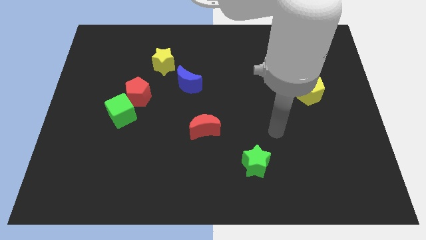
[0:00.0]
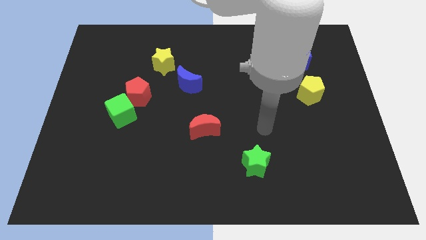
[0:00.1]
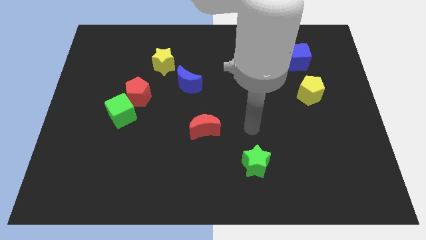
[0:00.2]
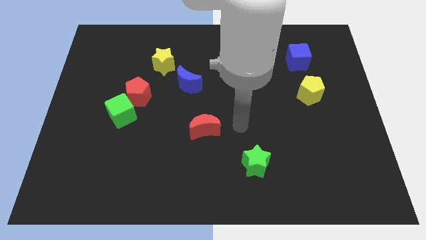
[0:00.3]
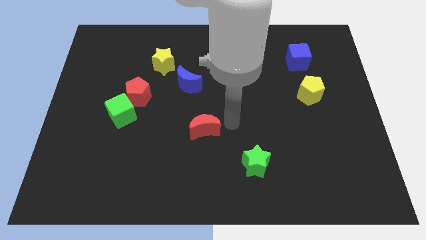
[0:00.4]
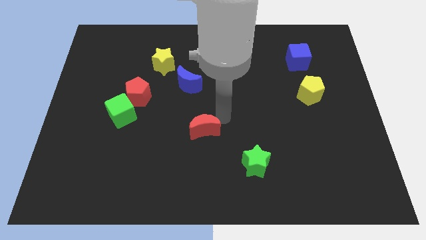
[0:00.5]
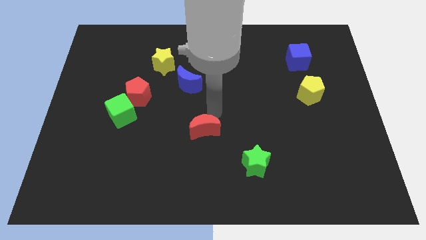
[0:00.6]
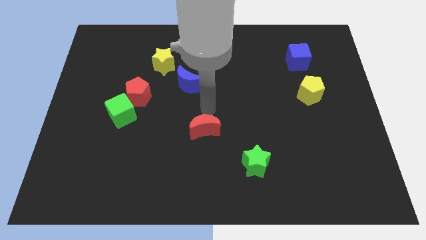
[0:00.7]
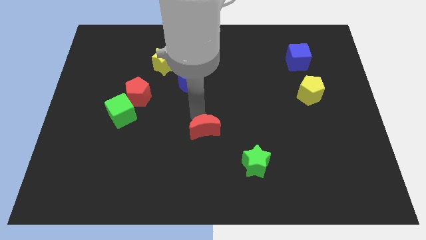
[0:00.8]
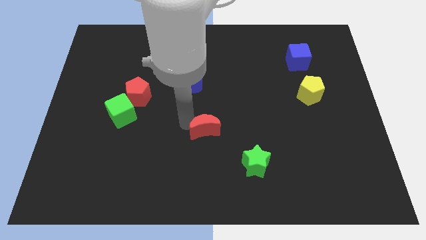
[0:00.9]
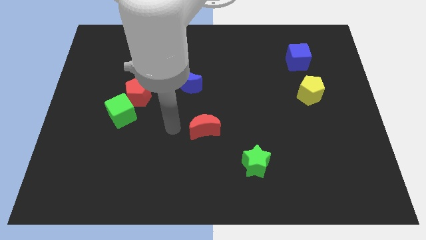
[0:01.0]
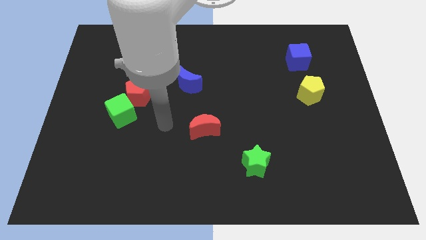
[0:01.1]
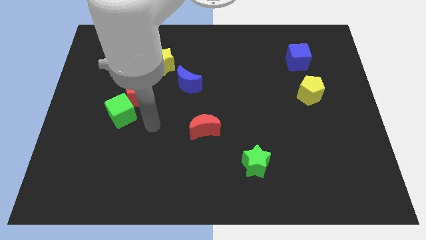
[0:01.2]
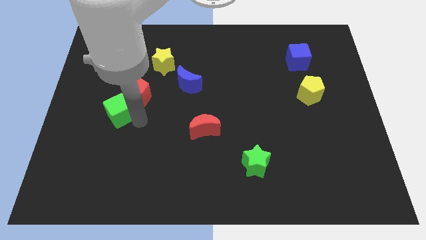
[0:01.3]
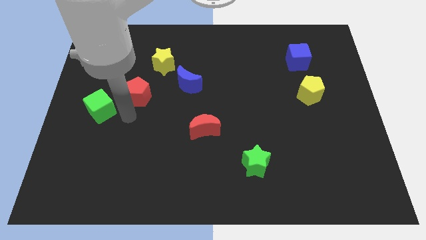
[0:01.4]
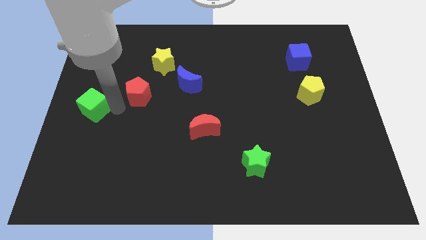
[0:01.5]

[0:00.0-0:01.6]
separate the red pentagon from the green cube

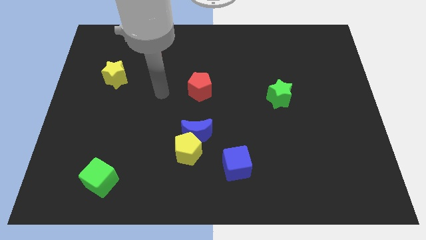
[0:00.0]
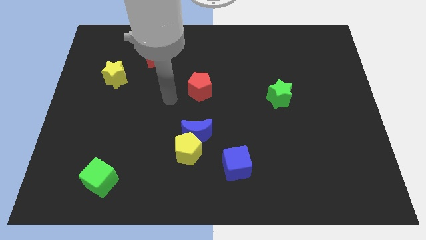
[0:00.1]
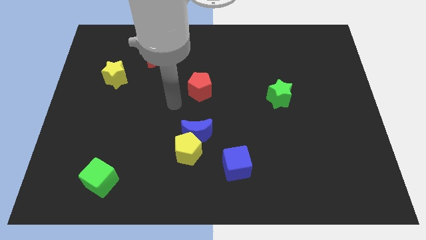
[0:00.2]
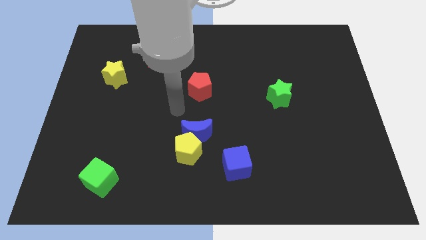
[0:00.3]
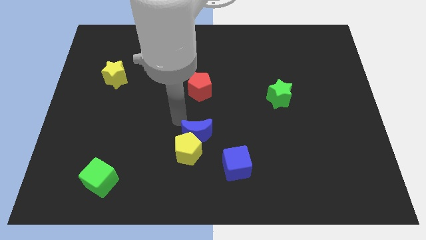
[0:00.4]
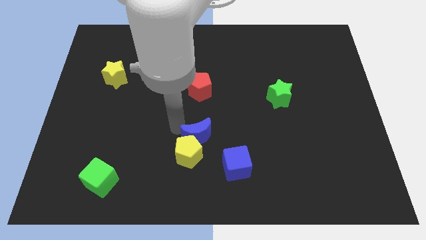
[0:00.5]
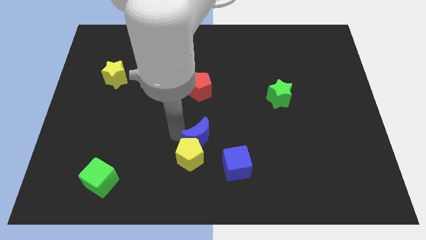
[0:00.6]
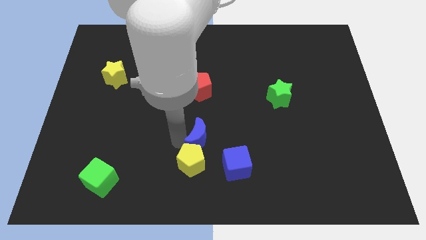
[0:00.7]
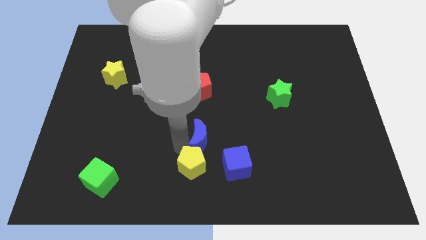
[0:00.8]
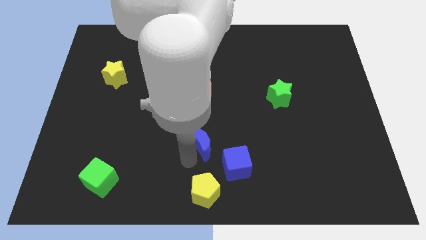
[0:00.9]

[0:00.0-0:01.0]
move the blue moon away from the yellow pentagon

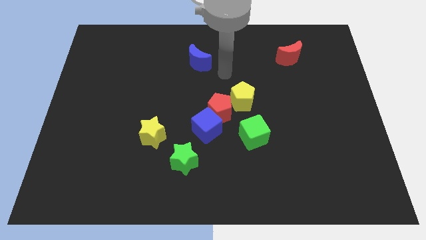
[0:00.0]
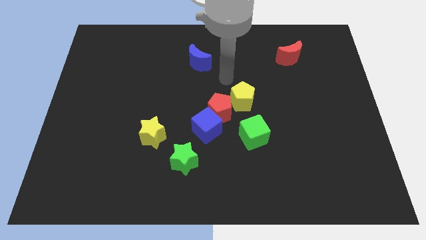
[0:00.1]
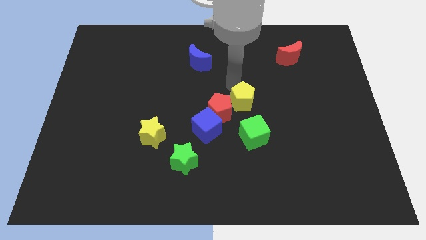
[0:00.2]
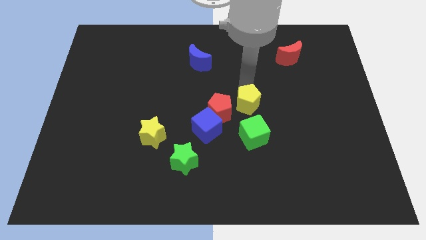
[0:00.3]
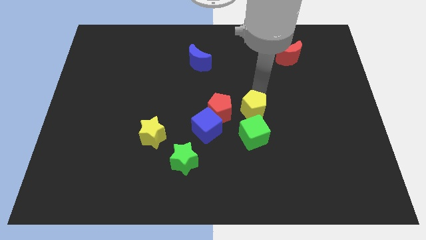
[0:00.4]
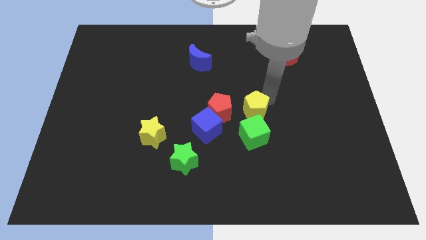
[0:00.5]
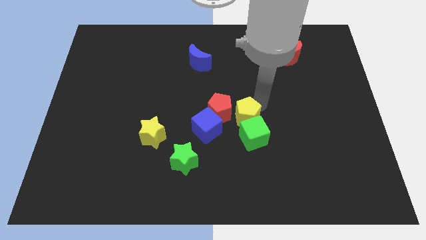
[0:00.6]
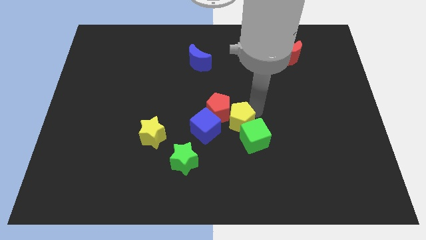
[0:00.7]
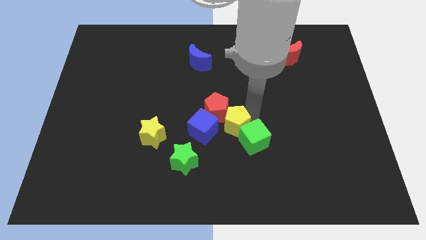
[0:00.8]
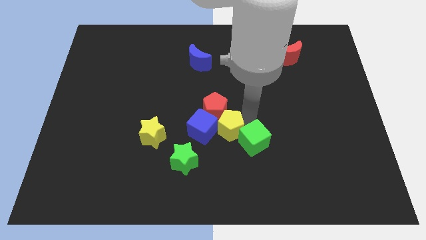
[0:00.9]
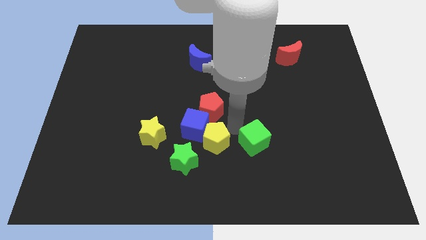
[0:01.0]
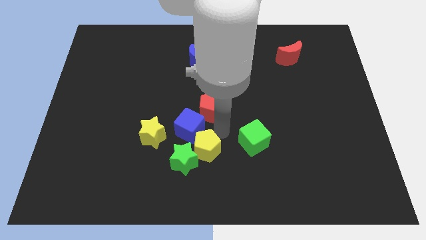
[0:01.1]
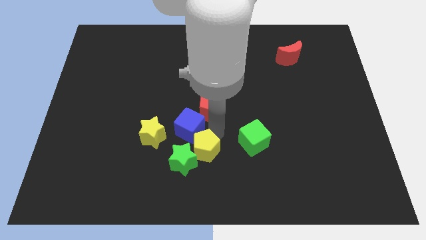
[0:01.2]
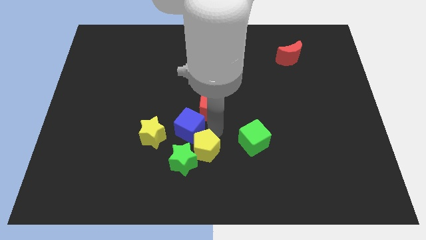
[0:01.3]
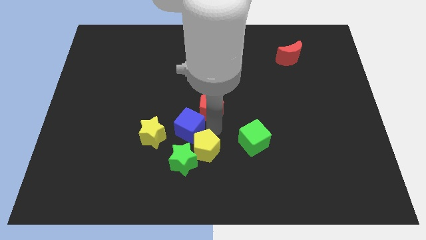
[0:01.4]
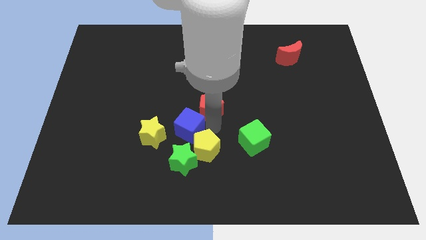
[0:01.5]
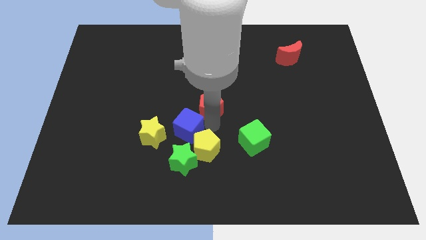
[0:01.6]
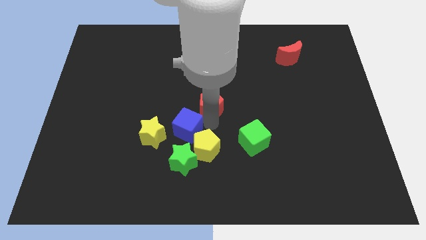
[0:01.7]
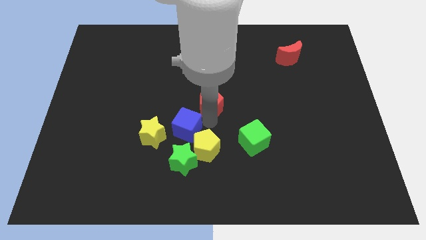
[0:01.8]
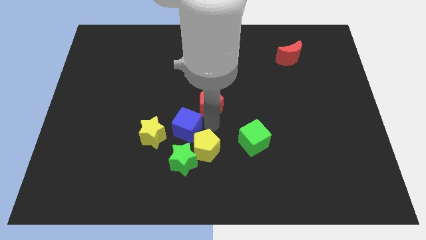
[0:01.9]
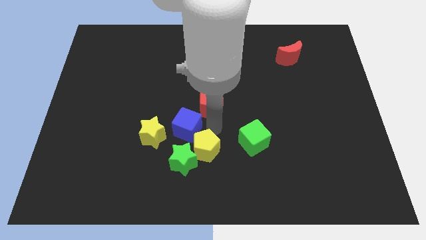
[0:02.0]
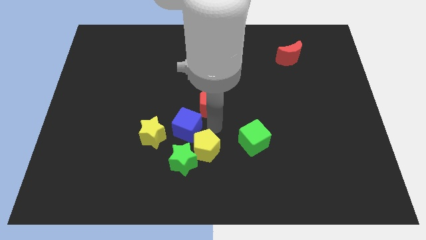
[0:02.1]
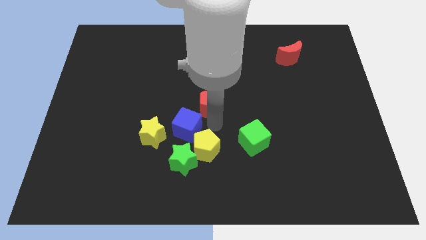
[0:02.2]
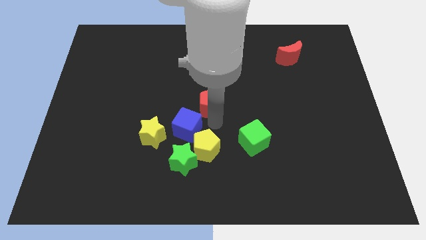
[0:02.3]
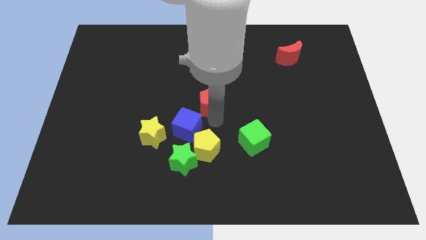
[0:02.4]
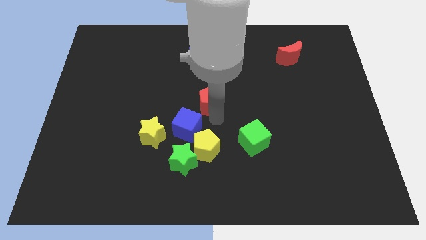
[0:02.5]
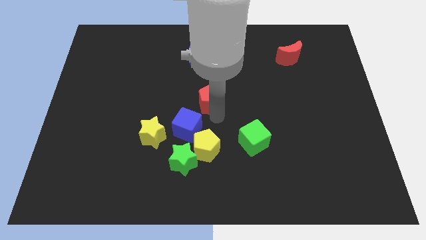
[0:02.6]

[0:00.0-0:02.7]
pull the red pentagon apart from the blue cube, yellow pentagon, and green cube

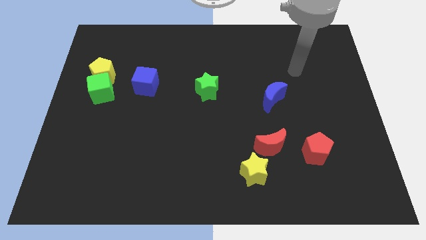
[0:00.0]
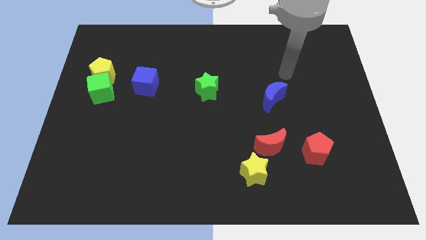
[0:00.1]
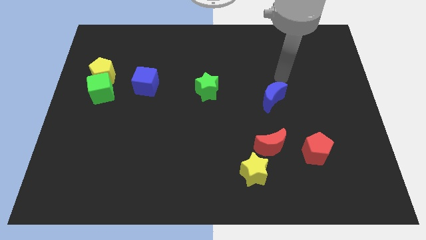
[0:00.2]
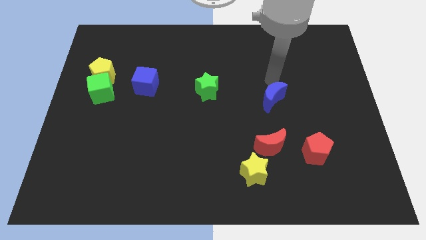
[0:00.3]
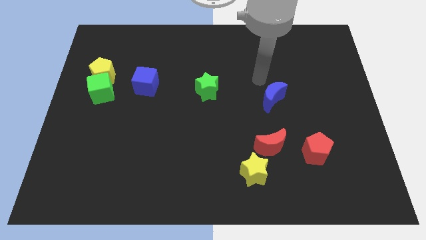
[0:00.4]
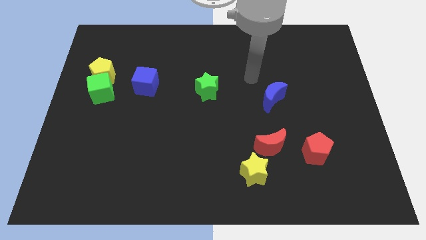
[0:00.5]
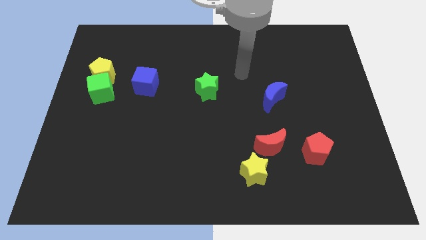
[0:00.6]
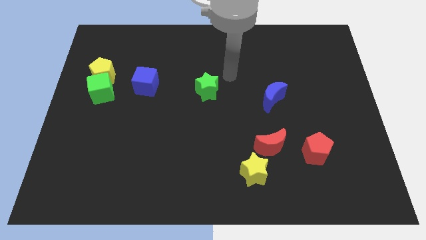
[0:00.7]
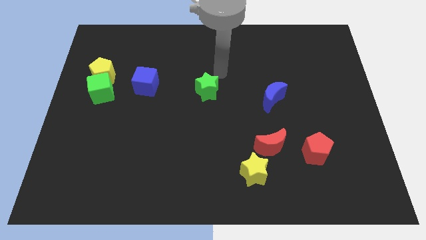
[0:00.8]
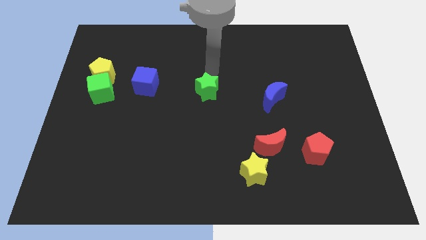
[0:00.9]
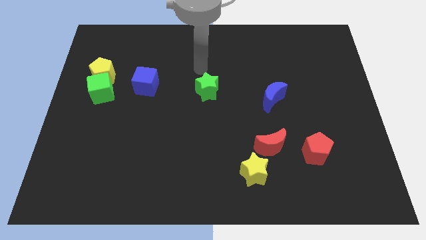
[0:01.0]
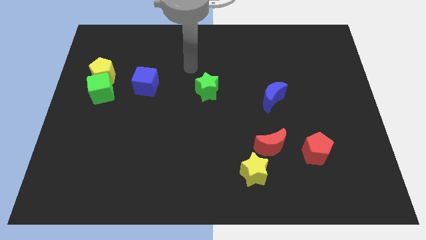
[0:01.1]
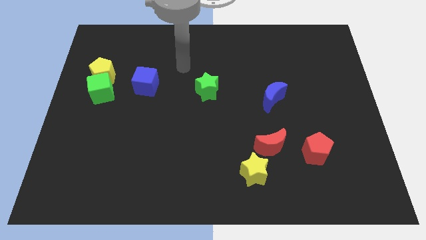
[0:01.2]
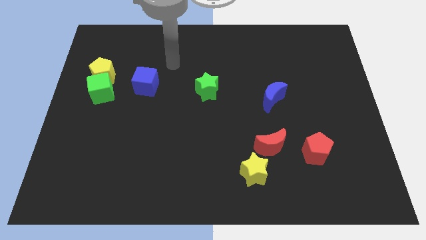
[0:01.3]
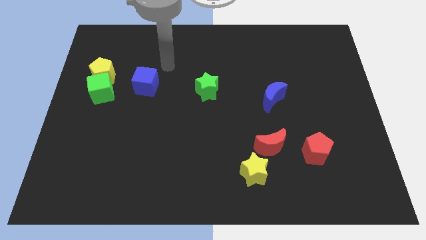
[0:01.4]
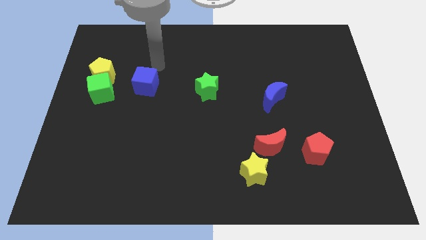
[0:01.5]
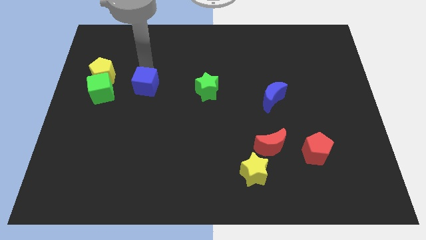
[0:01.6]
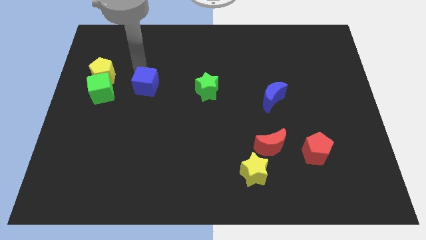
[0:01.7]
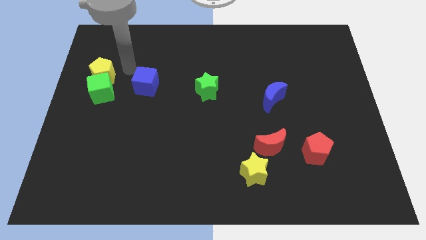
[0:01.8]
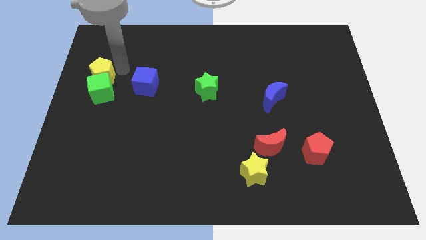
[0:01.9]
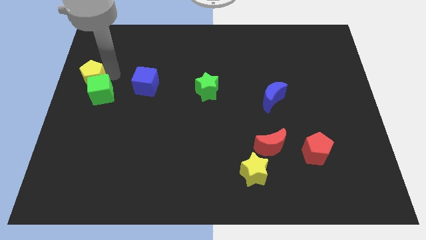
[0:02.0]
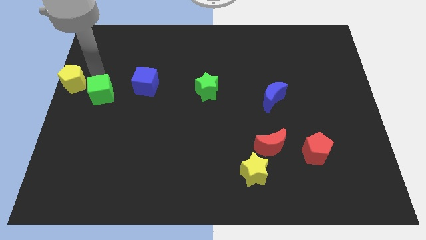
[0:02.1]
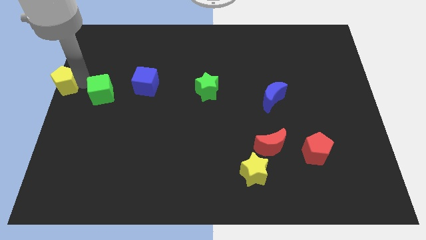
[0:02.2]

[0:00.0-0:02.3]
move the green cube away from the yellow pentagon

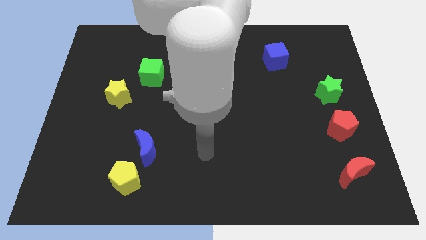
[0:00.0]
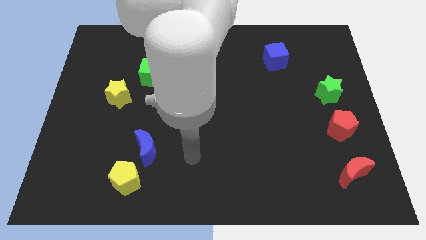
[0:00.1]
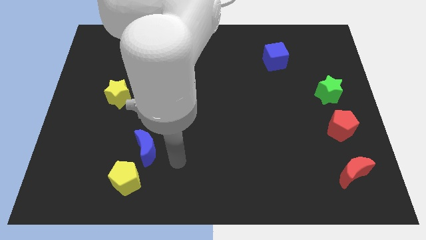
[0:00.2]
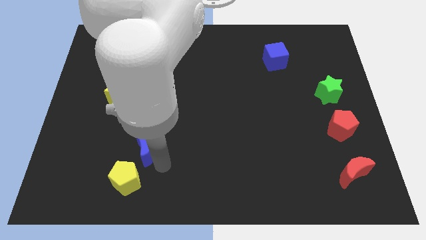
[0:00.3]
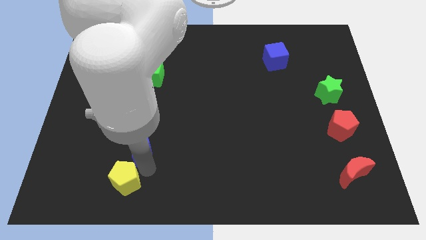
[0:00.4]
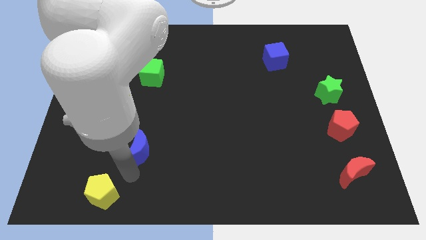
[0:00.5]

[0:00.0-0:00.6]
pull the blue moon apart from the yellow pentagon

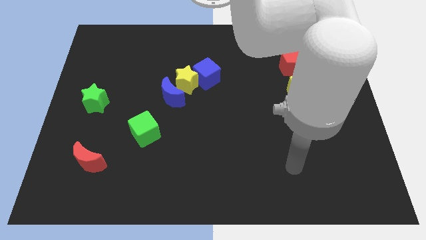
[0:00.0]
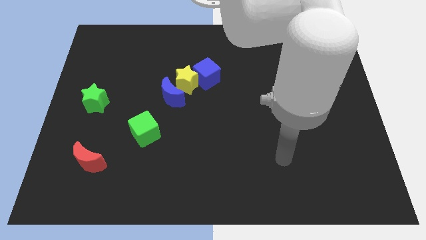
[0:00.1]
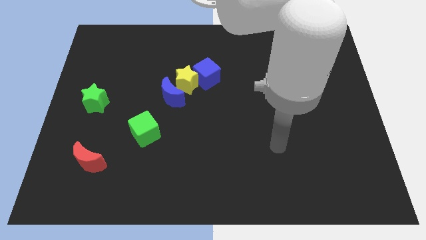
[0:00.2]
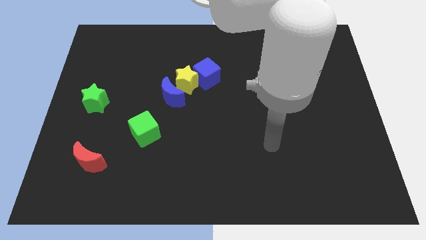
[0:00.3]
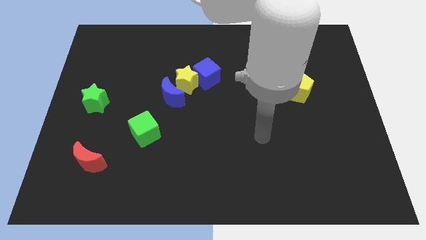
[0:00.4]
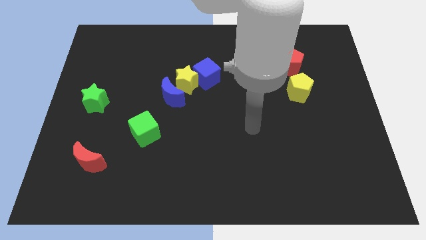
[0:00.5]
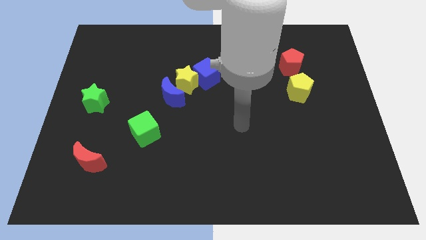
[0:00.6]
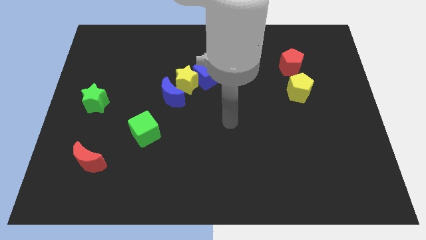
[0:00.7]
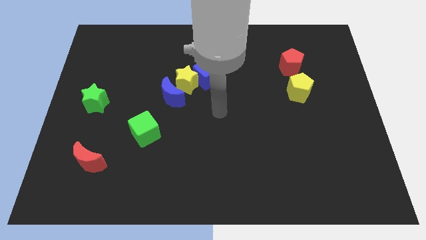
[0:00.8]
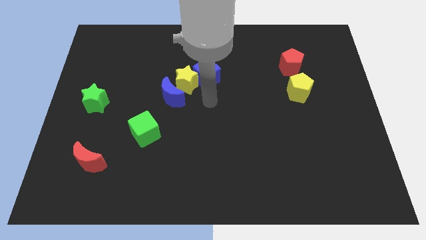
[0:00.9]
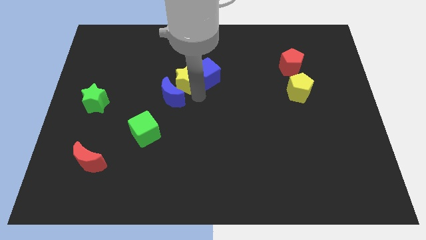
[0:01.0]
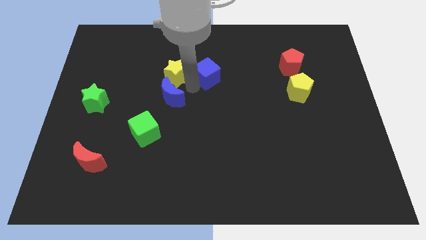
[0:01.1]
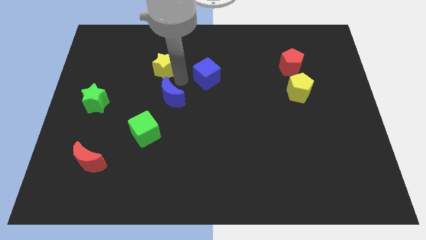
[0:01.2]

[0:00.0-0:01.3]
separate the blue moon from the yellow star
